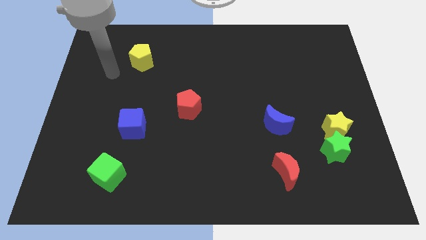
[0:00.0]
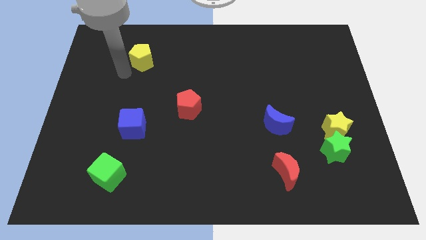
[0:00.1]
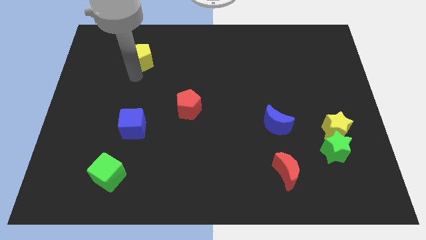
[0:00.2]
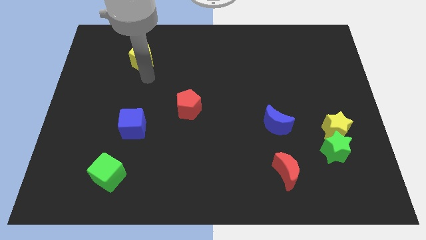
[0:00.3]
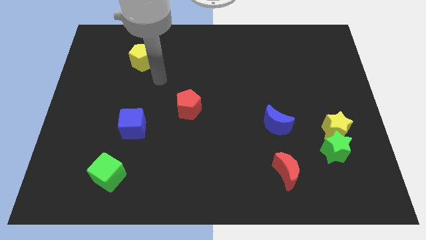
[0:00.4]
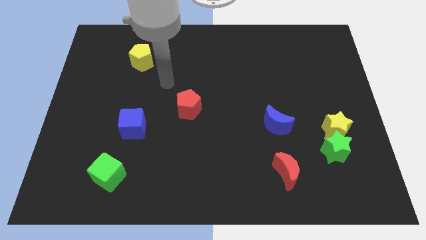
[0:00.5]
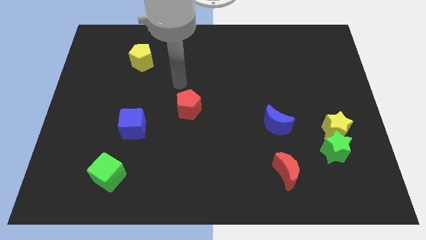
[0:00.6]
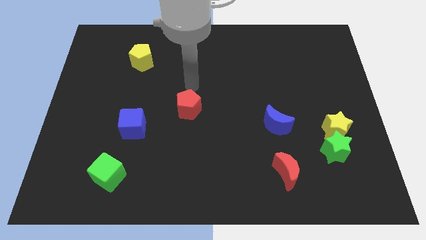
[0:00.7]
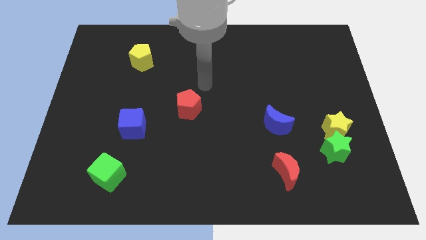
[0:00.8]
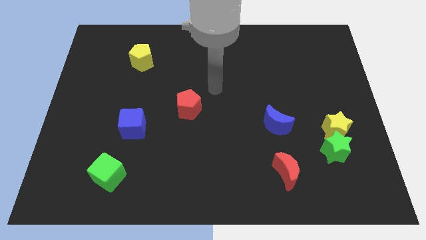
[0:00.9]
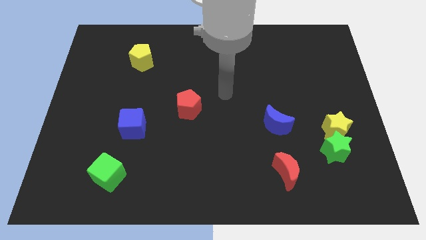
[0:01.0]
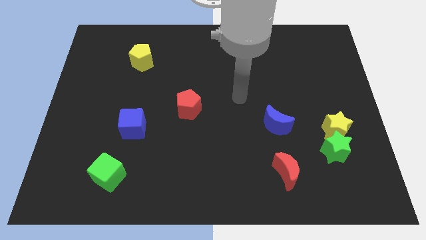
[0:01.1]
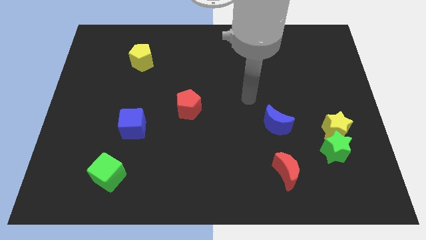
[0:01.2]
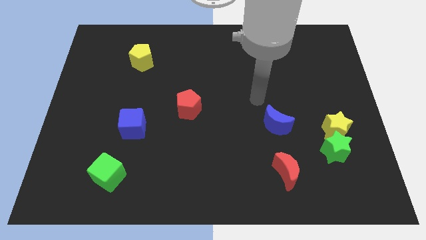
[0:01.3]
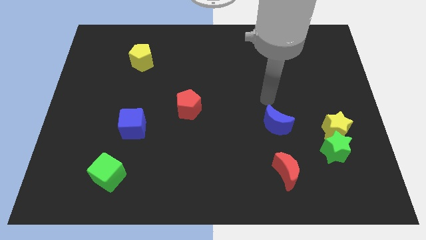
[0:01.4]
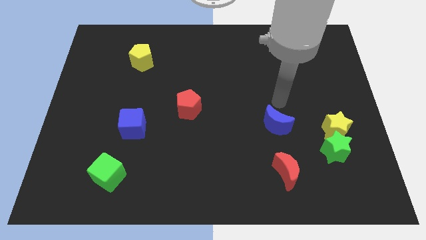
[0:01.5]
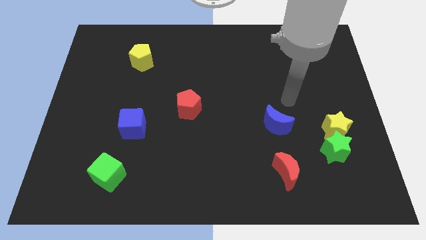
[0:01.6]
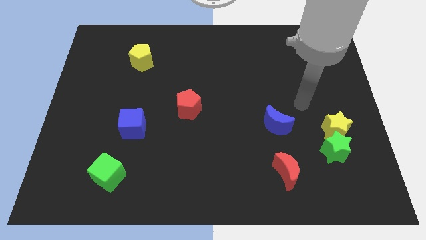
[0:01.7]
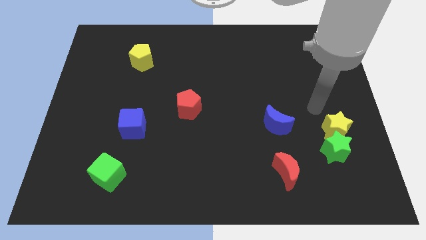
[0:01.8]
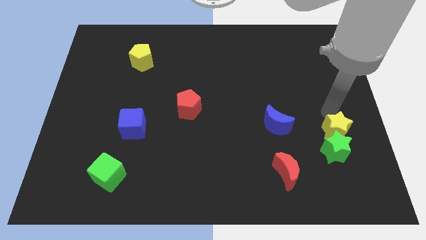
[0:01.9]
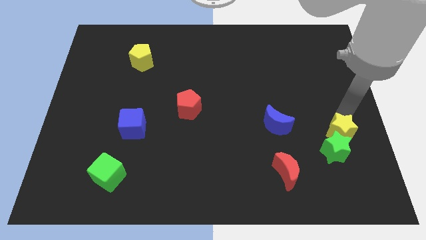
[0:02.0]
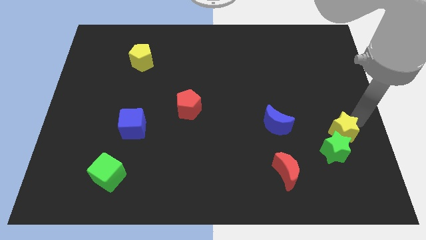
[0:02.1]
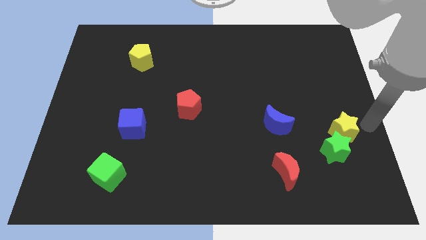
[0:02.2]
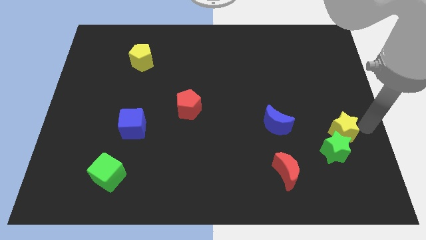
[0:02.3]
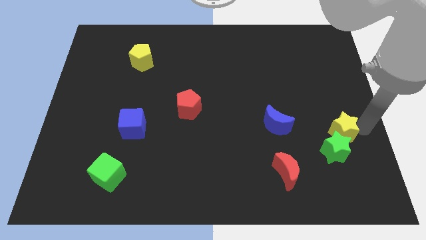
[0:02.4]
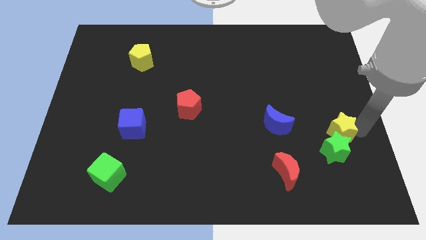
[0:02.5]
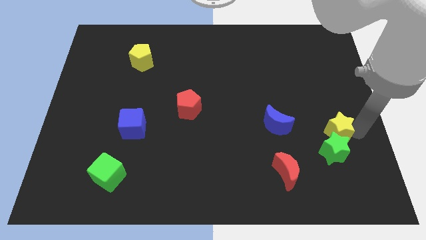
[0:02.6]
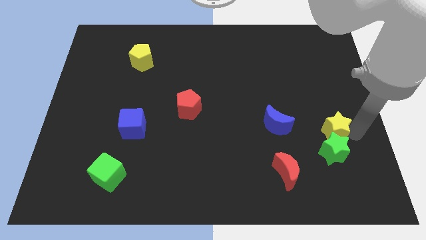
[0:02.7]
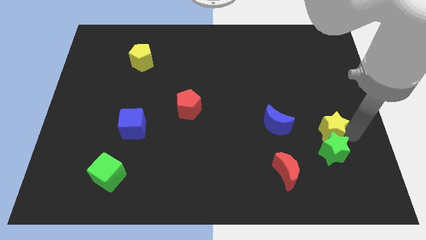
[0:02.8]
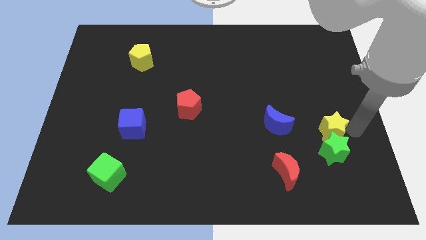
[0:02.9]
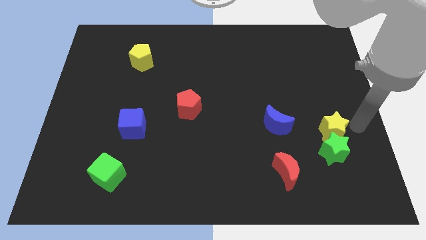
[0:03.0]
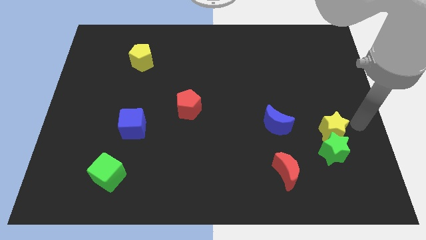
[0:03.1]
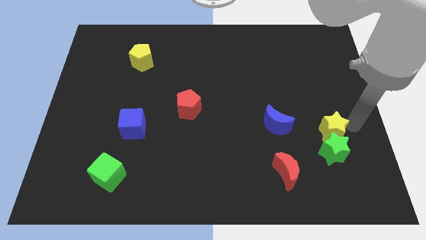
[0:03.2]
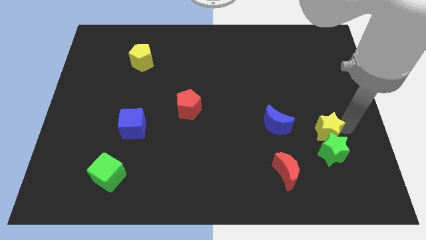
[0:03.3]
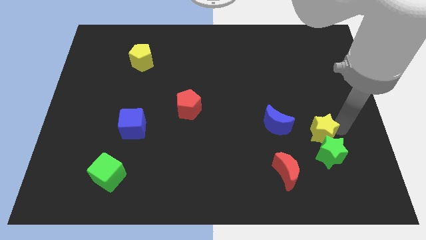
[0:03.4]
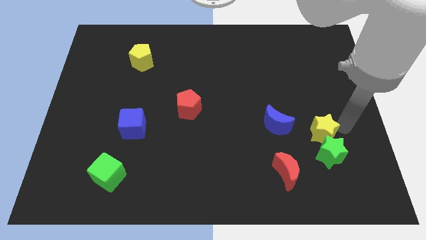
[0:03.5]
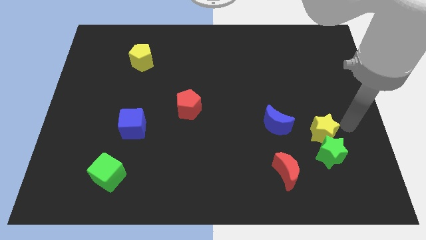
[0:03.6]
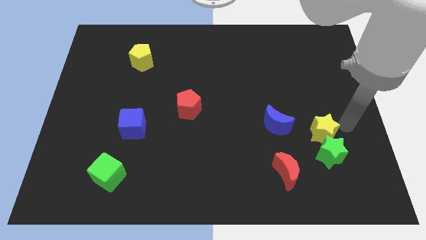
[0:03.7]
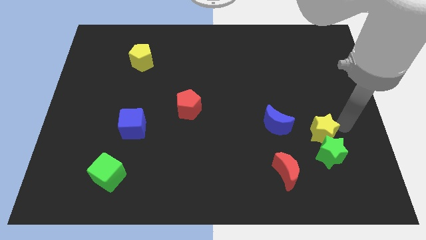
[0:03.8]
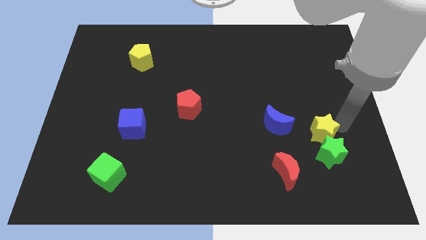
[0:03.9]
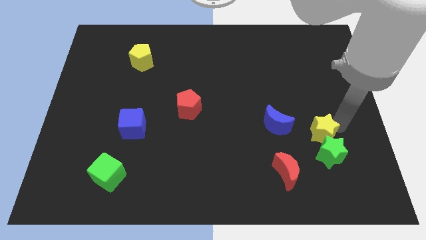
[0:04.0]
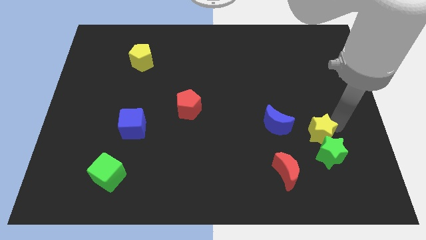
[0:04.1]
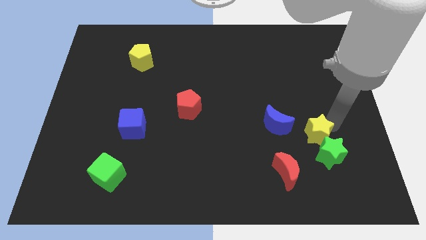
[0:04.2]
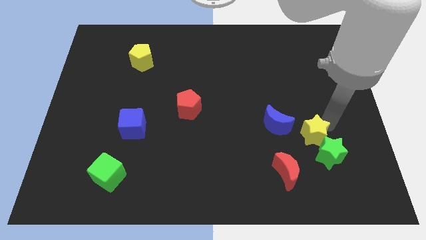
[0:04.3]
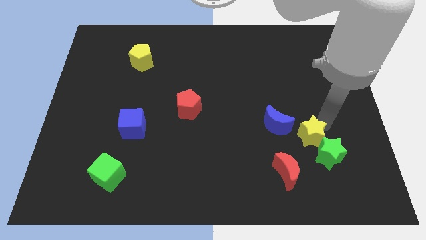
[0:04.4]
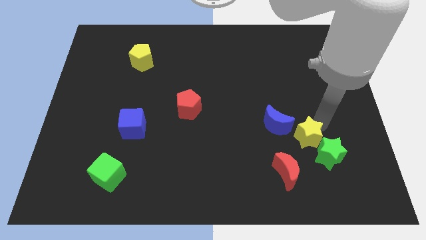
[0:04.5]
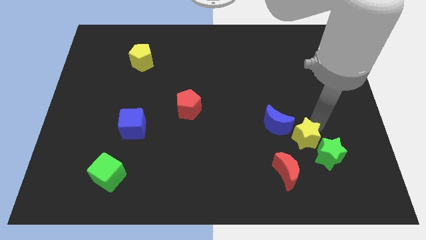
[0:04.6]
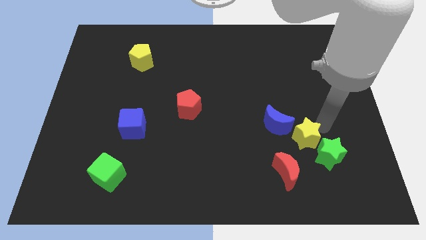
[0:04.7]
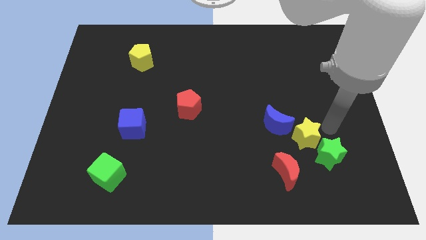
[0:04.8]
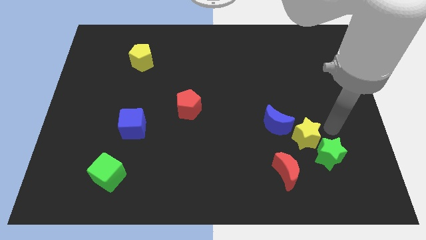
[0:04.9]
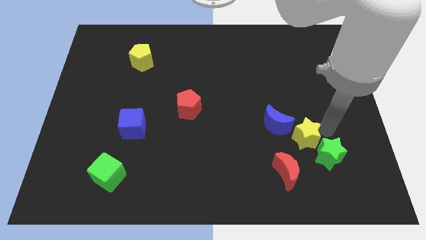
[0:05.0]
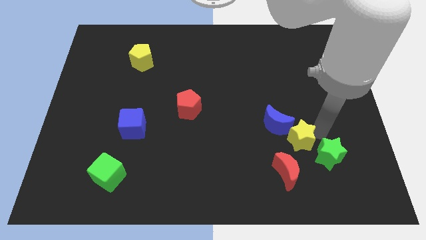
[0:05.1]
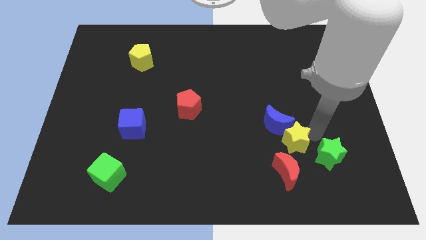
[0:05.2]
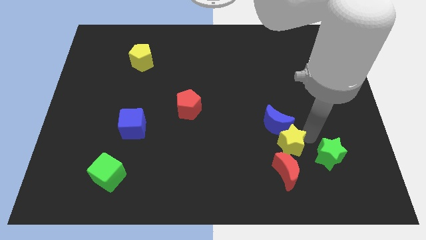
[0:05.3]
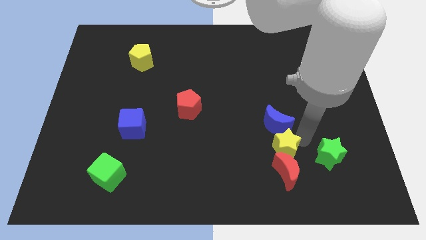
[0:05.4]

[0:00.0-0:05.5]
move the yellow star diagonally up and to the left of the red moon

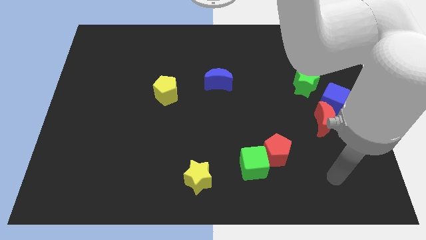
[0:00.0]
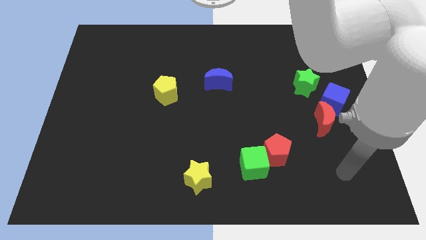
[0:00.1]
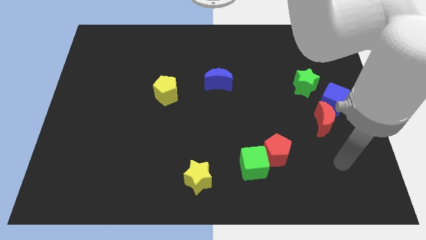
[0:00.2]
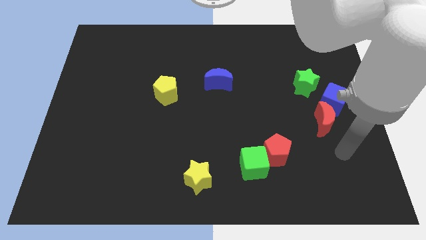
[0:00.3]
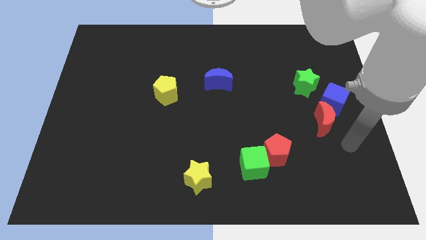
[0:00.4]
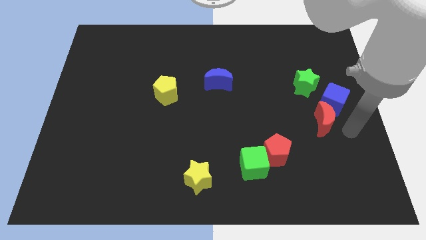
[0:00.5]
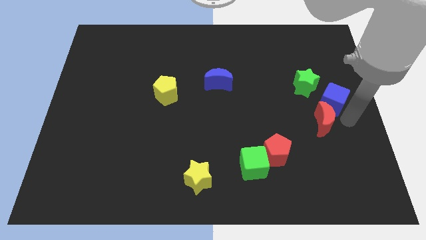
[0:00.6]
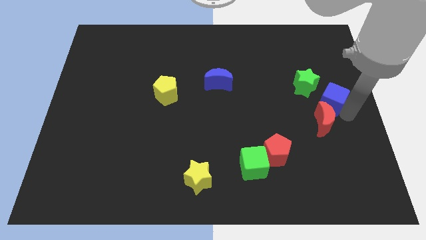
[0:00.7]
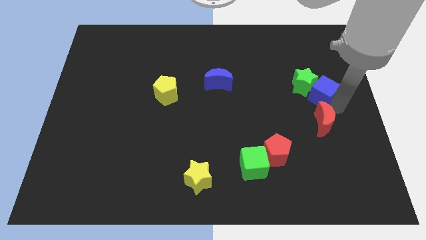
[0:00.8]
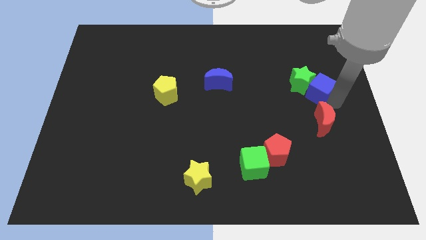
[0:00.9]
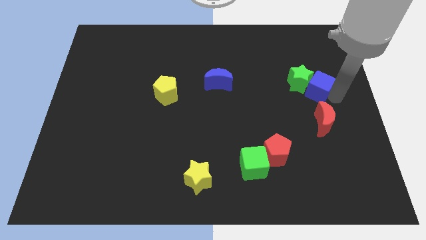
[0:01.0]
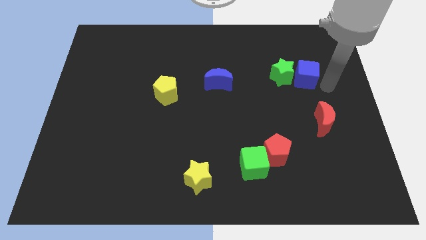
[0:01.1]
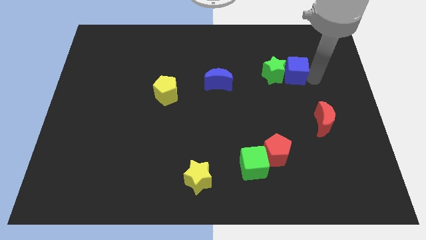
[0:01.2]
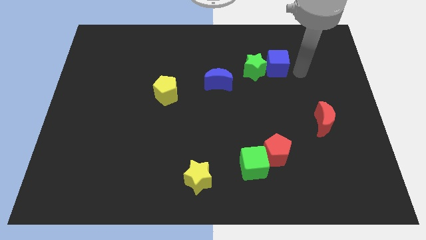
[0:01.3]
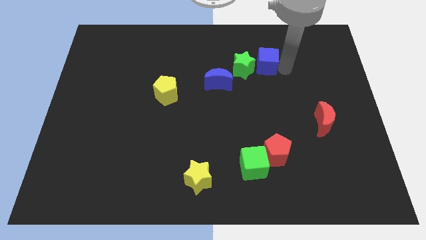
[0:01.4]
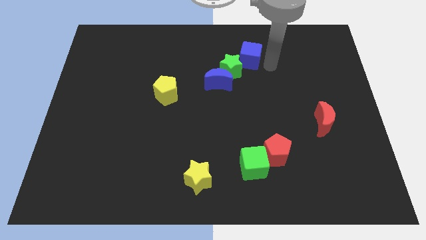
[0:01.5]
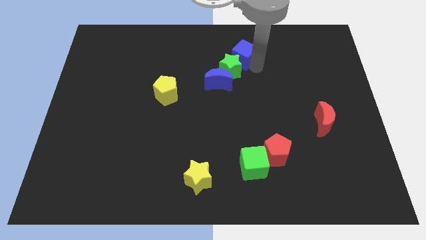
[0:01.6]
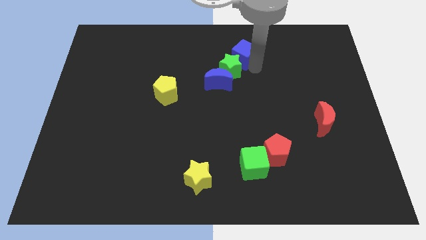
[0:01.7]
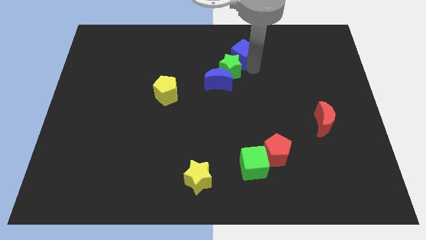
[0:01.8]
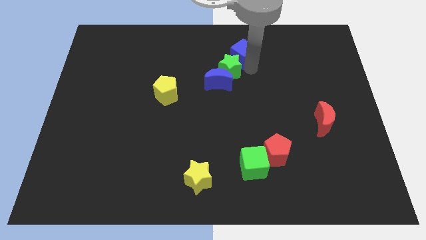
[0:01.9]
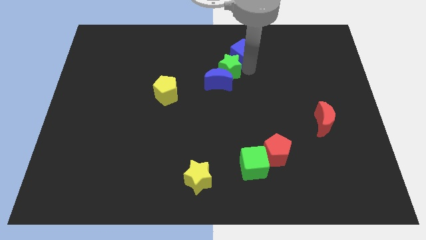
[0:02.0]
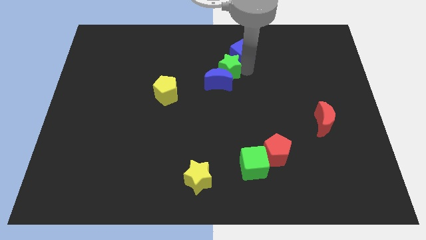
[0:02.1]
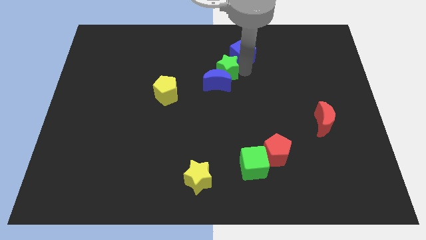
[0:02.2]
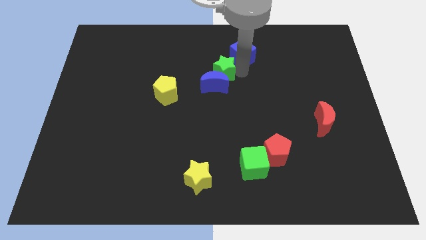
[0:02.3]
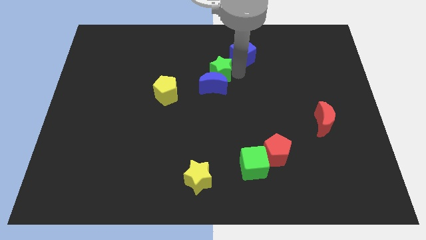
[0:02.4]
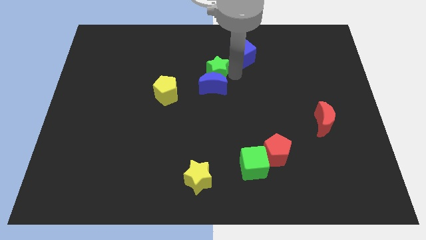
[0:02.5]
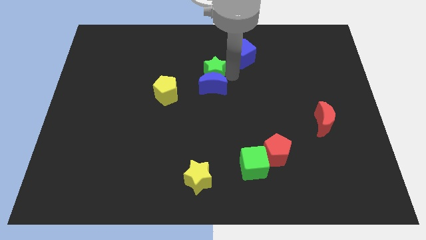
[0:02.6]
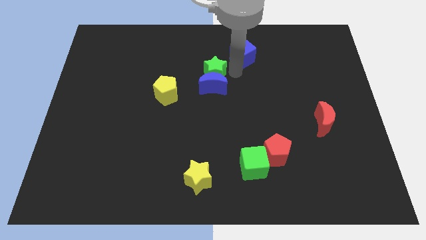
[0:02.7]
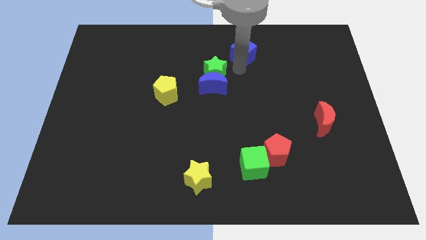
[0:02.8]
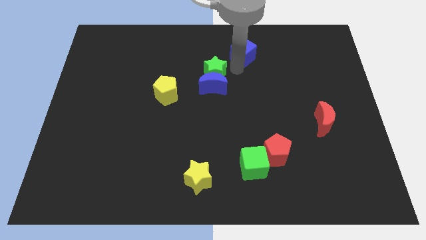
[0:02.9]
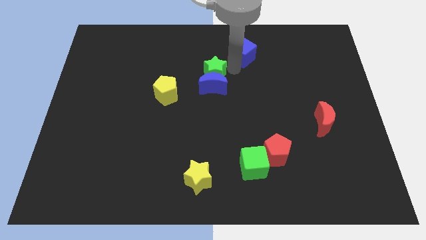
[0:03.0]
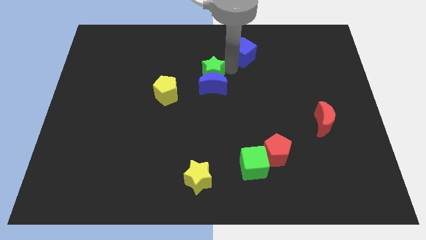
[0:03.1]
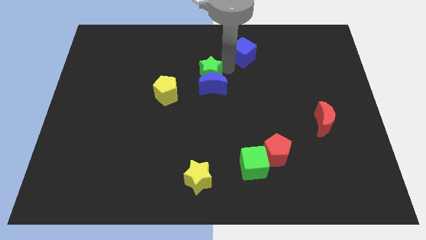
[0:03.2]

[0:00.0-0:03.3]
move the green star to the top right side of the yellow pentagon
